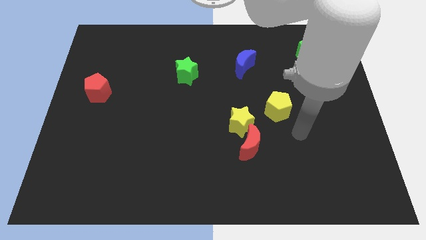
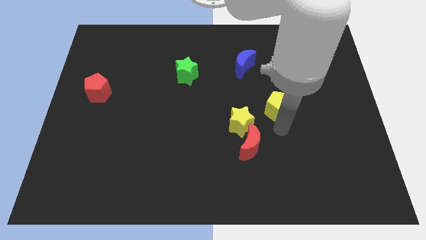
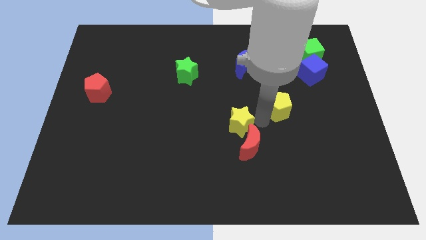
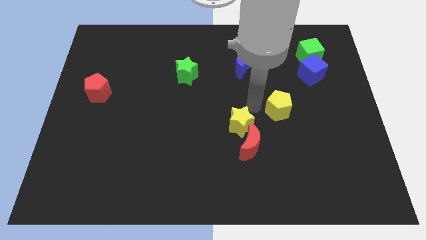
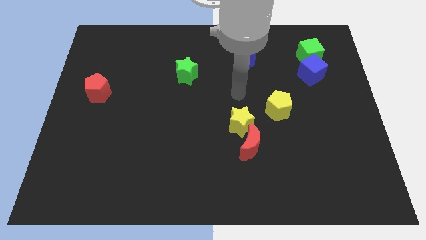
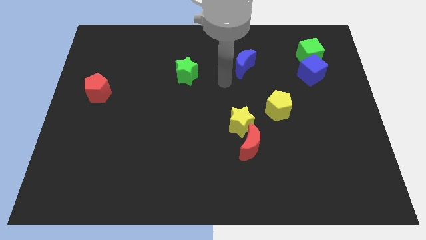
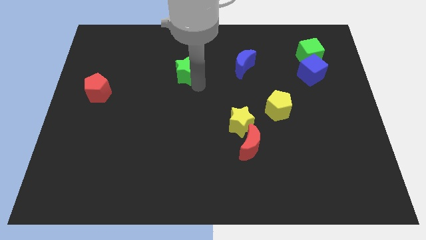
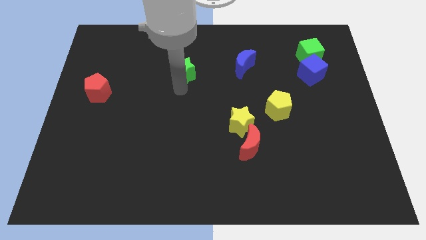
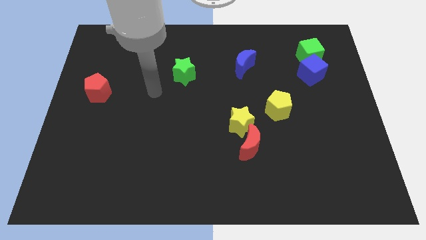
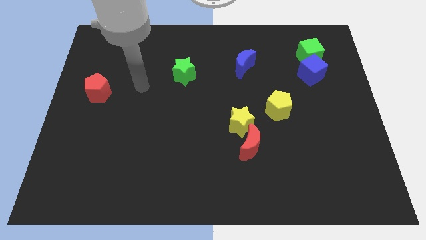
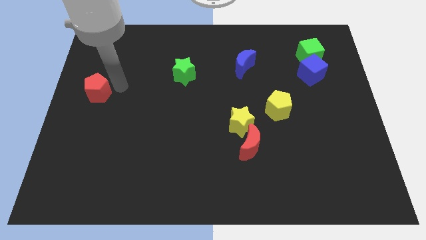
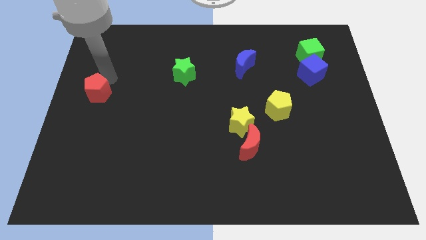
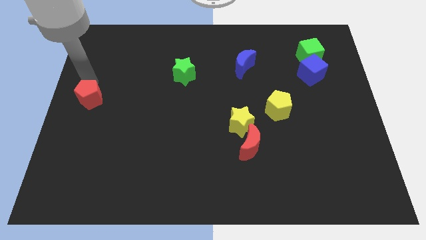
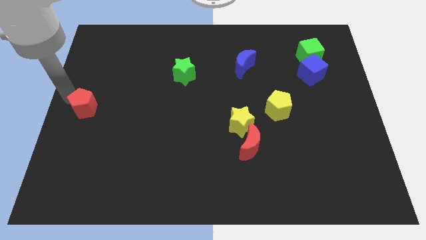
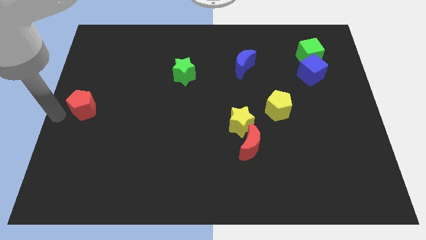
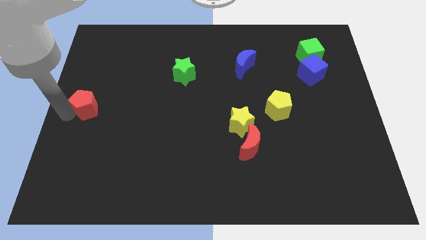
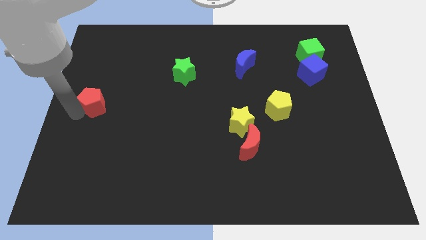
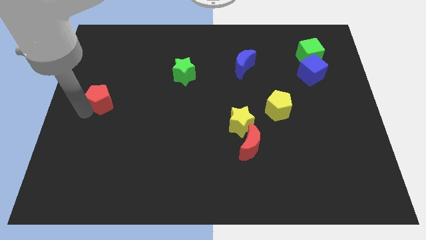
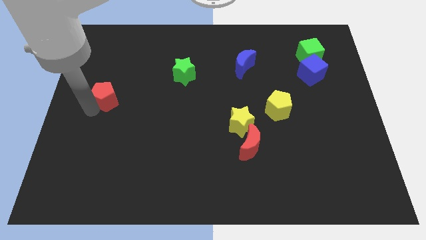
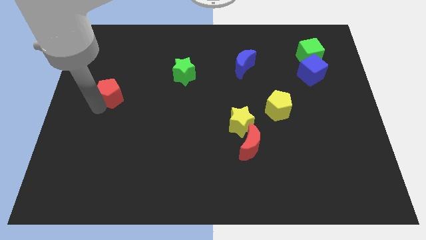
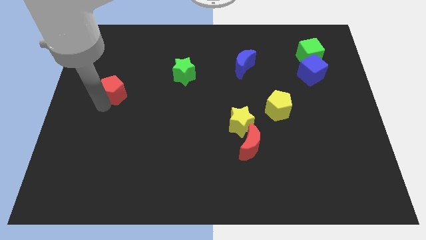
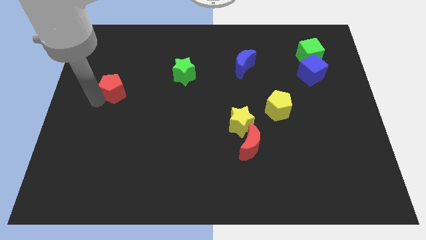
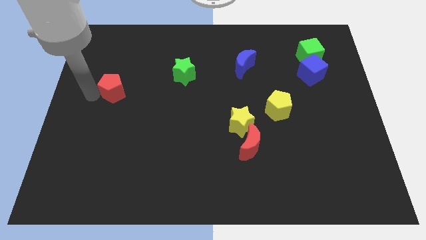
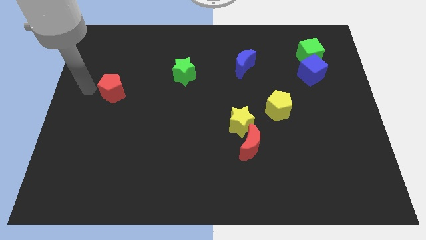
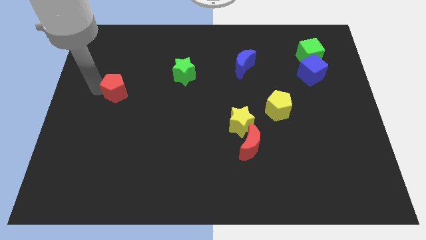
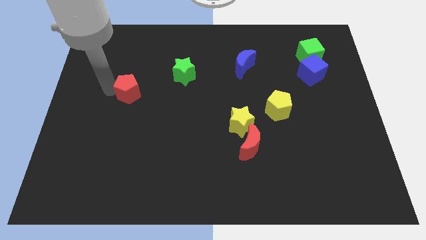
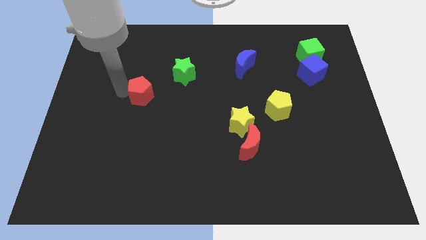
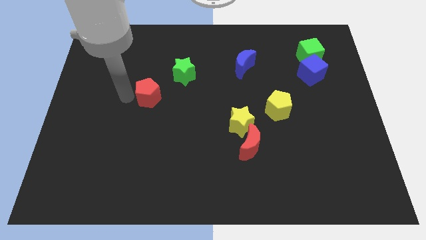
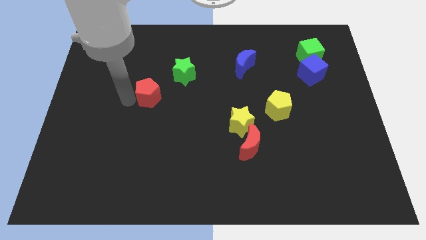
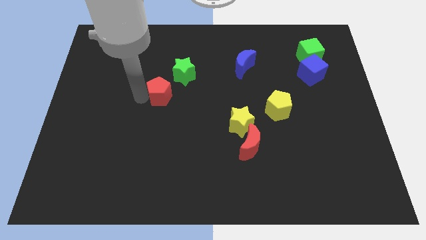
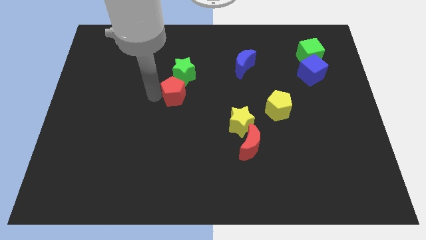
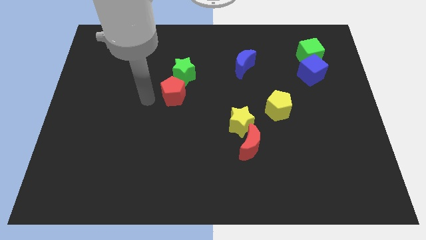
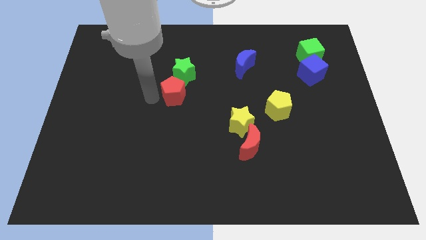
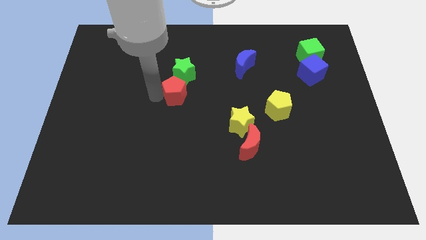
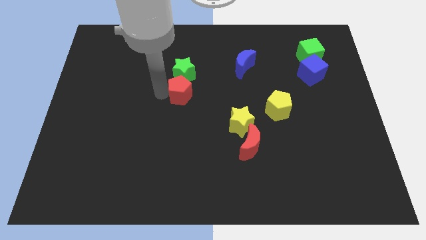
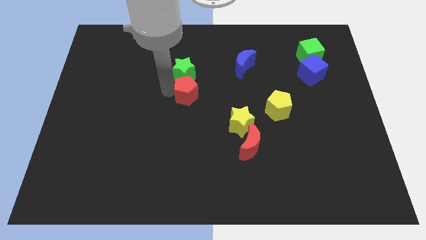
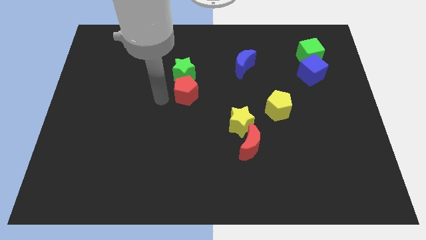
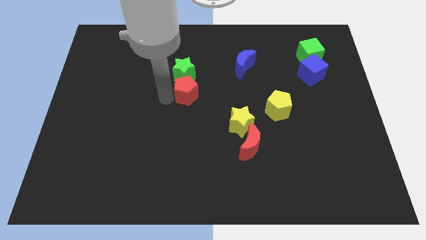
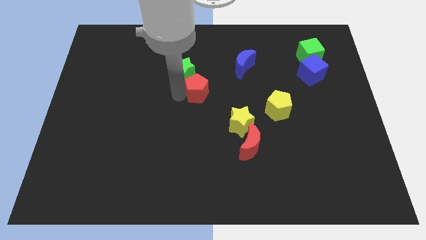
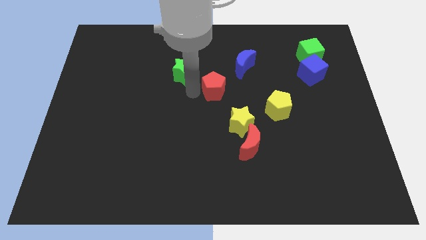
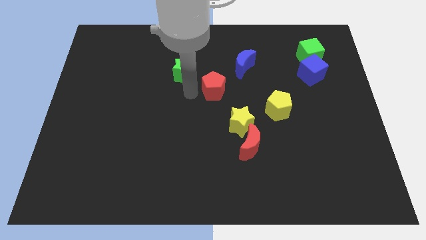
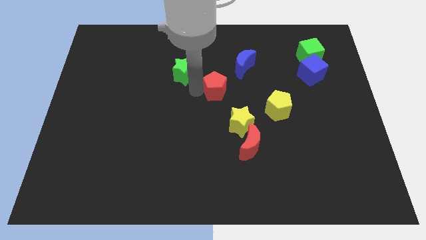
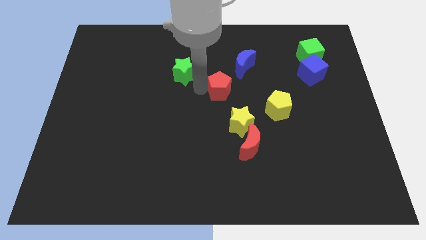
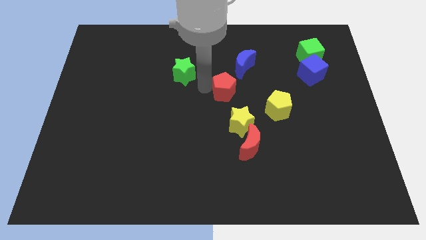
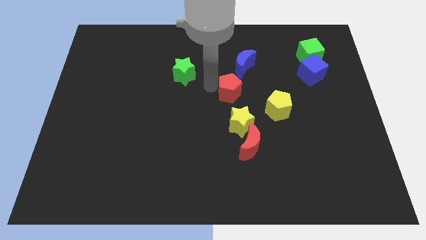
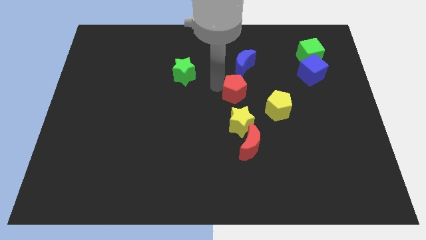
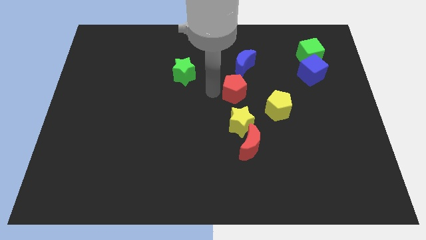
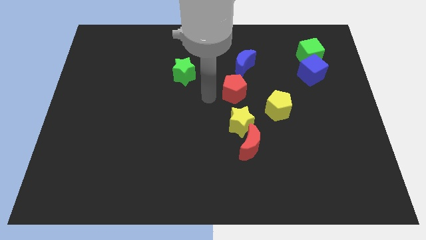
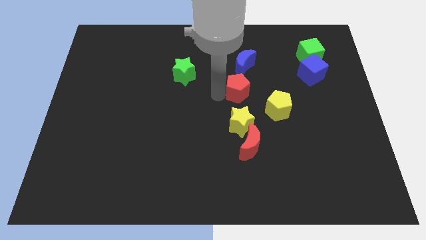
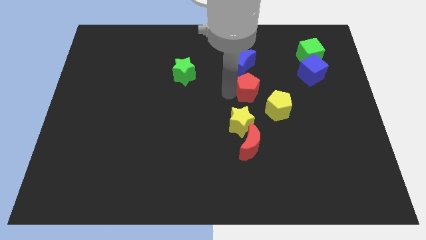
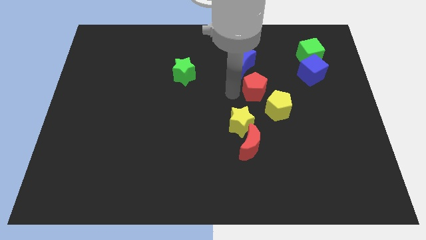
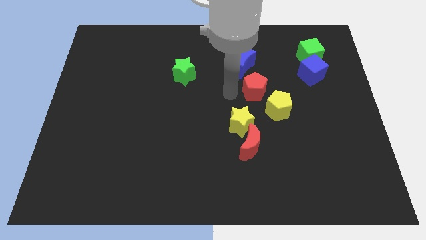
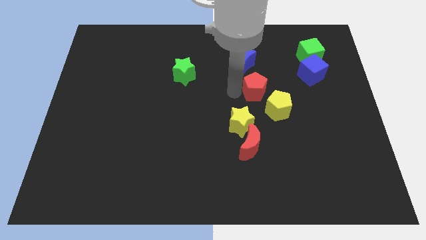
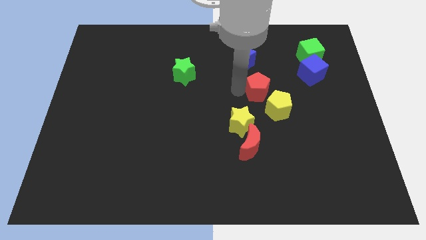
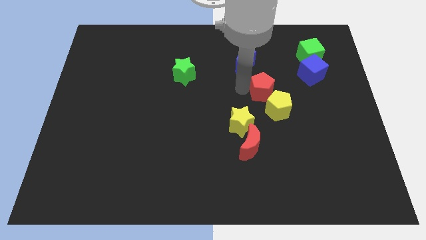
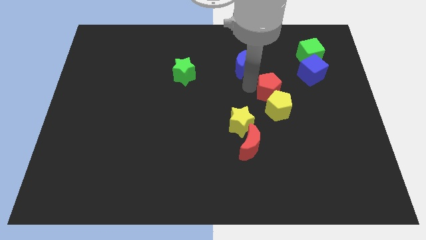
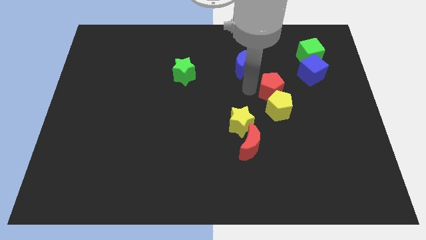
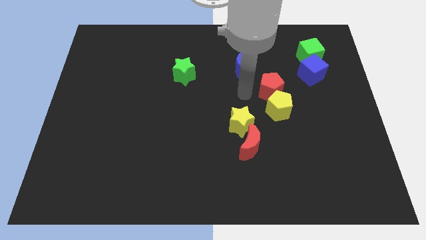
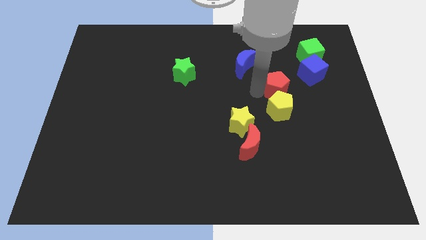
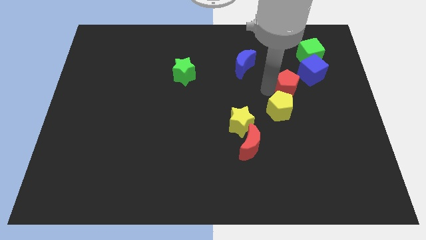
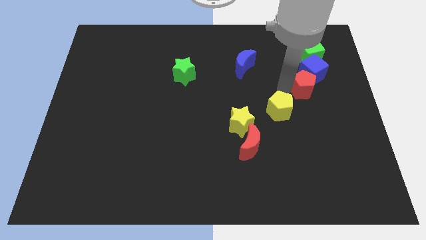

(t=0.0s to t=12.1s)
slide the red pentagon towards the blue cube
